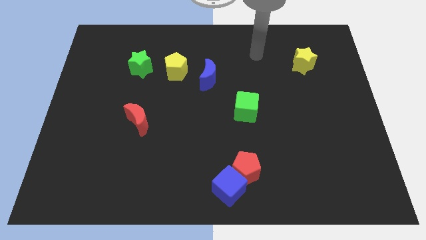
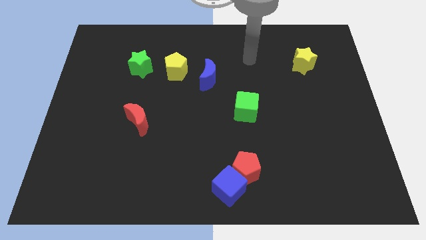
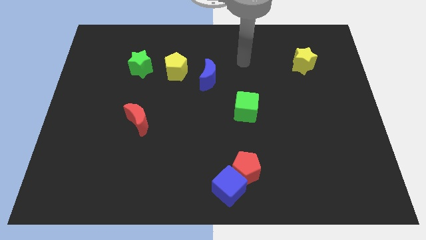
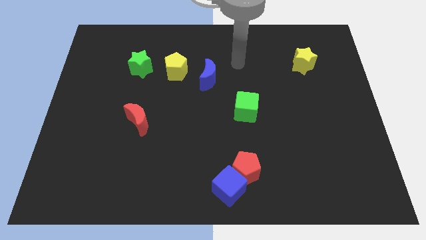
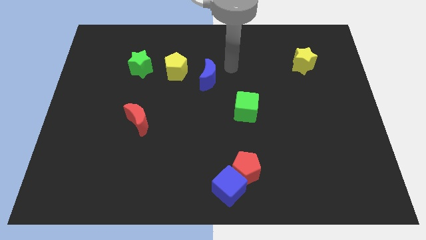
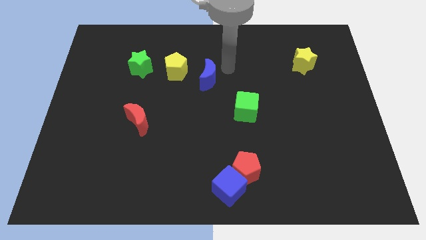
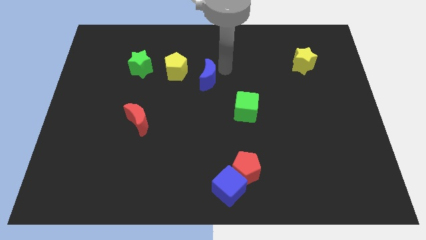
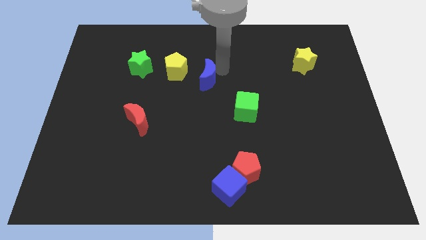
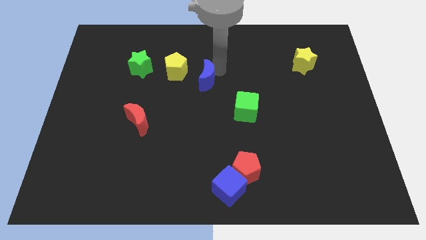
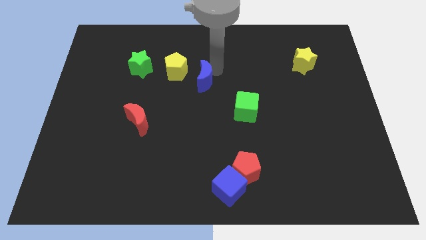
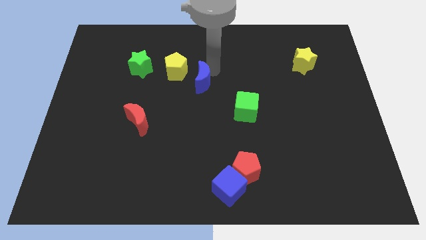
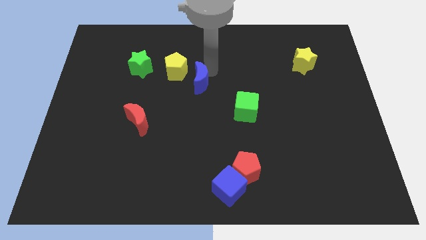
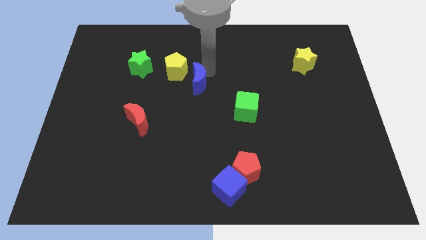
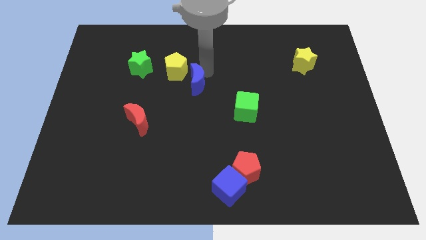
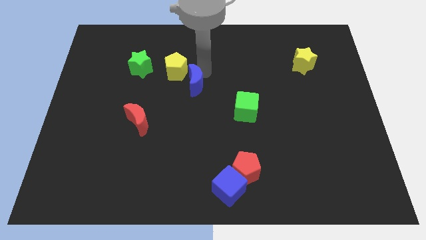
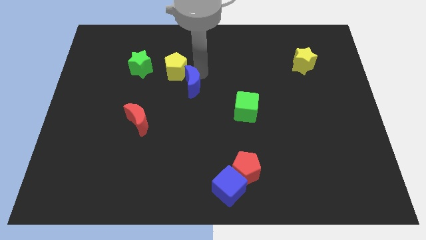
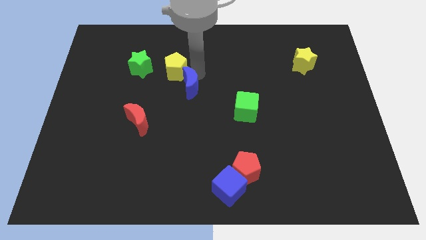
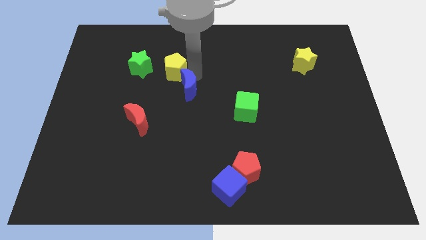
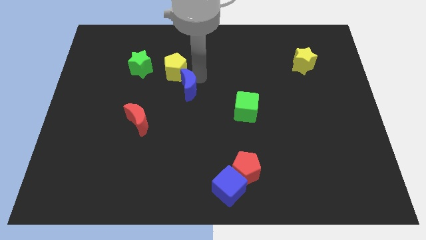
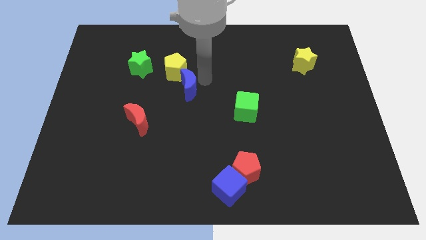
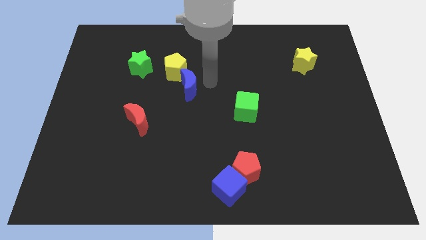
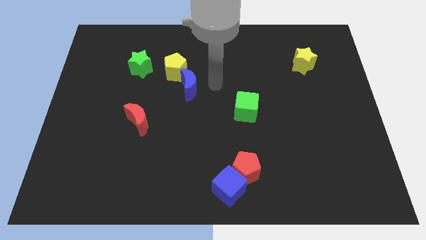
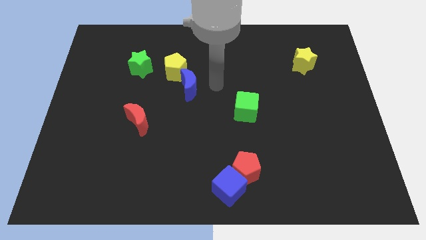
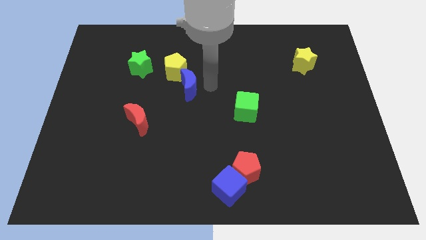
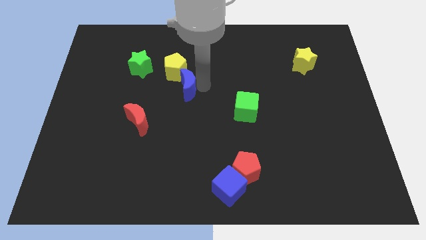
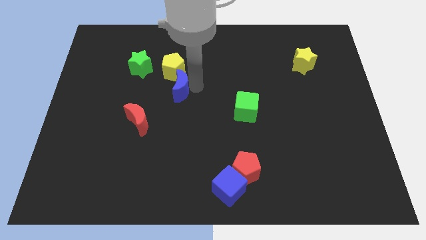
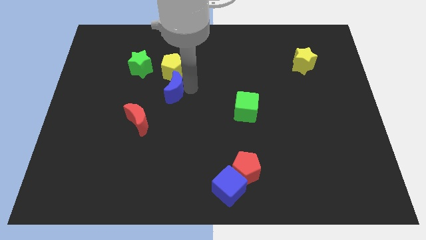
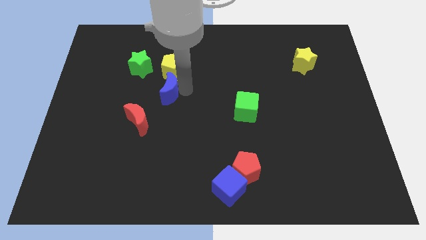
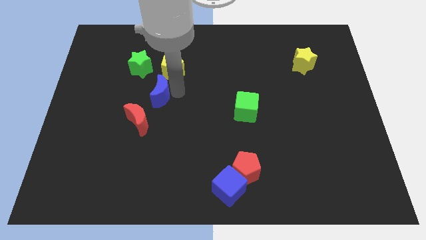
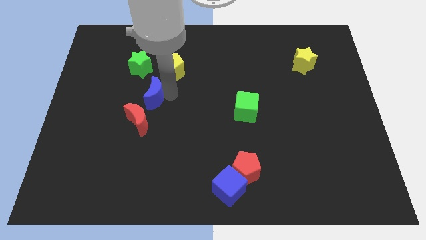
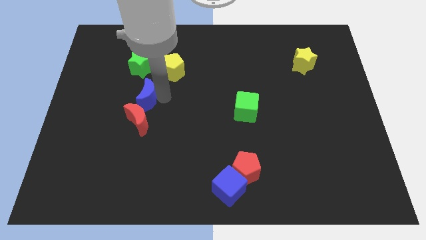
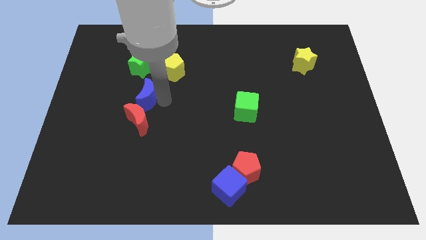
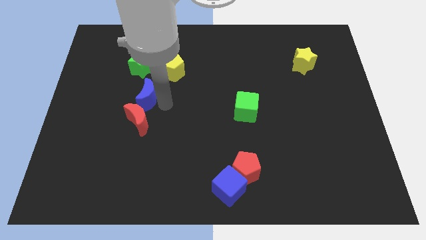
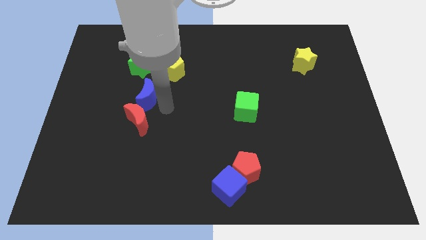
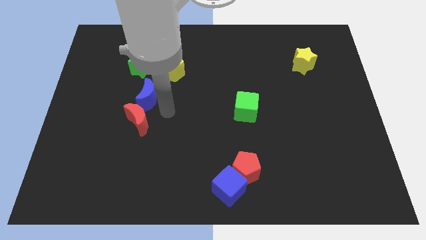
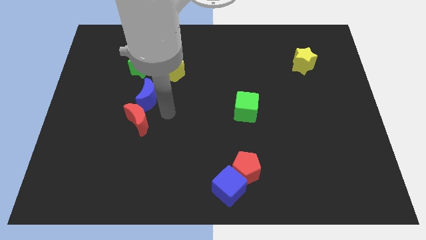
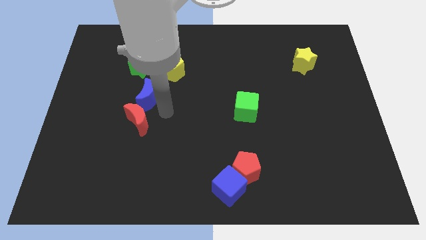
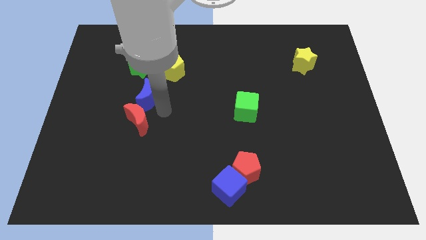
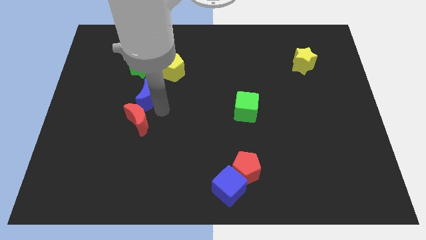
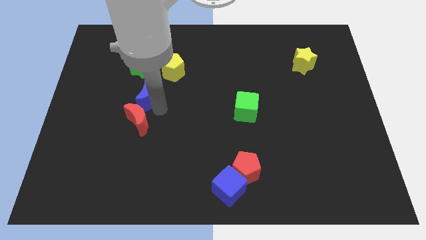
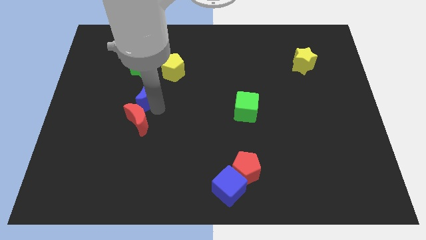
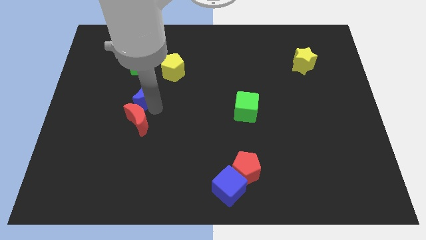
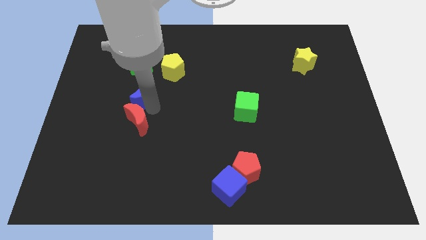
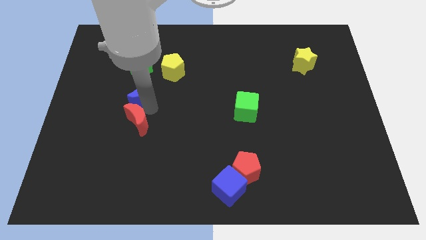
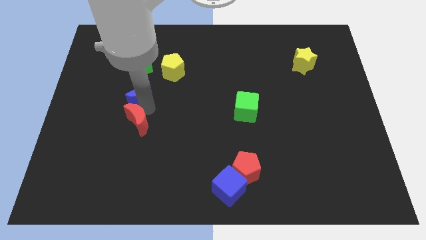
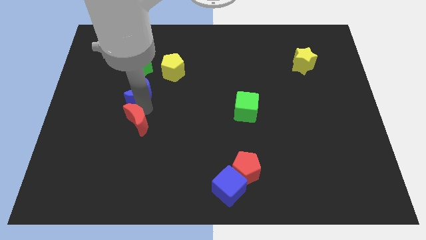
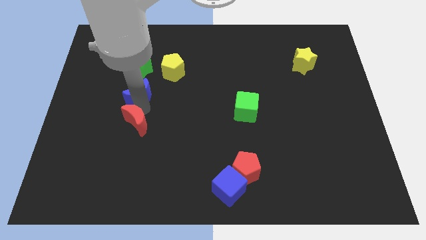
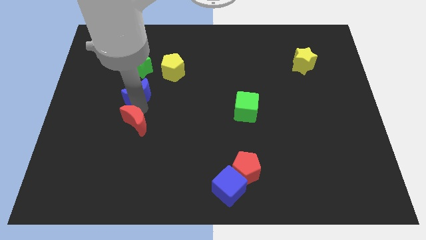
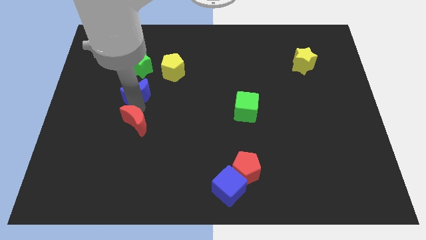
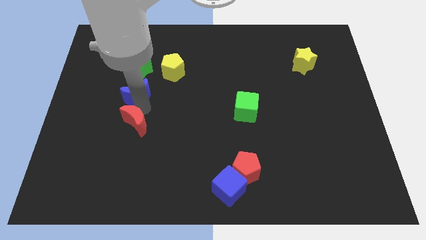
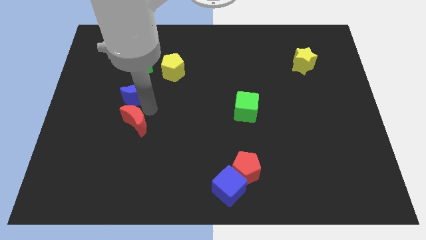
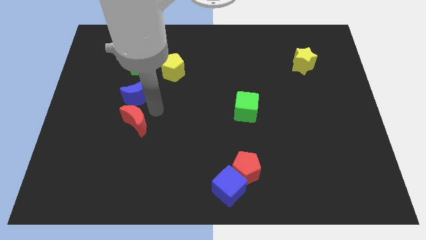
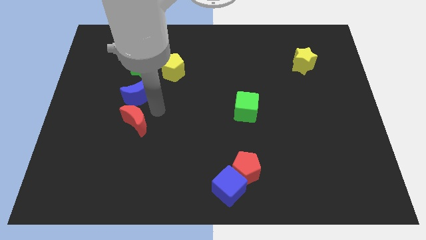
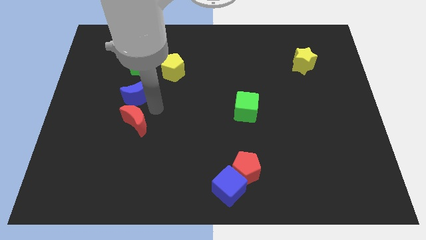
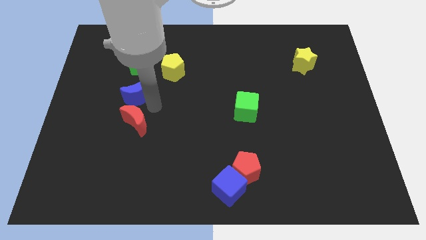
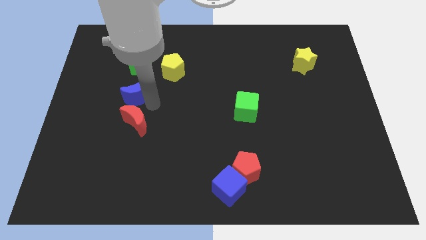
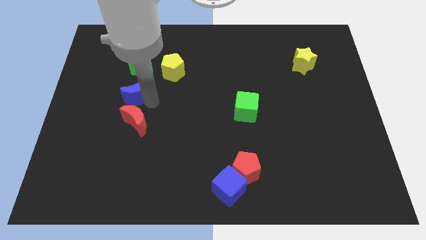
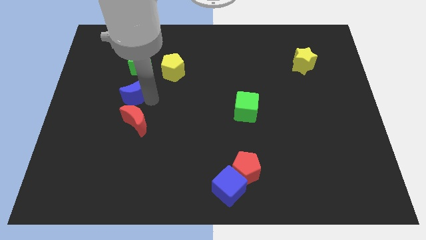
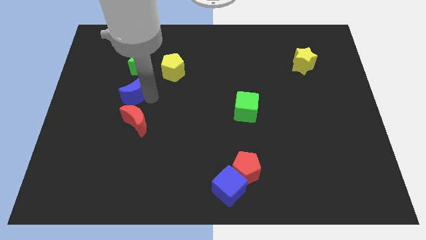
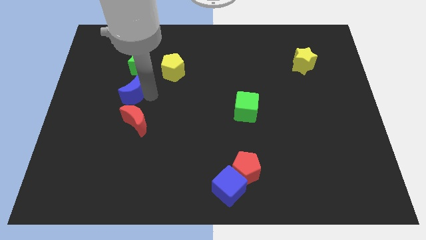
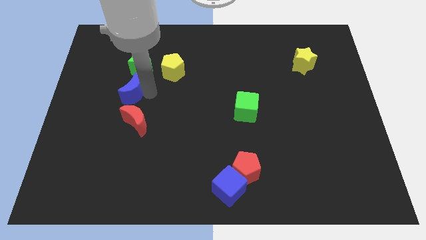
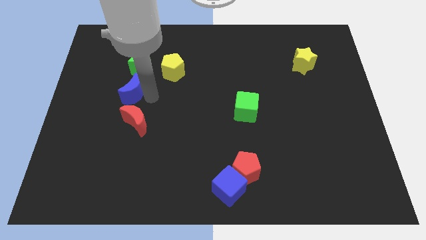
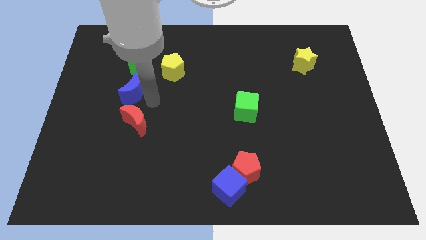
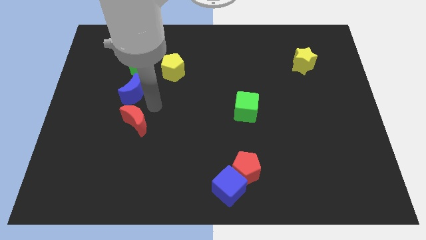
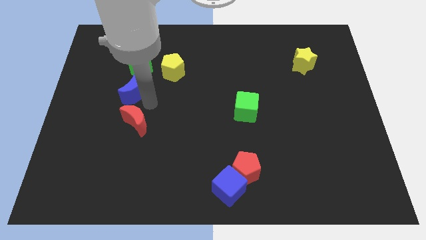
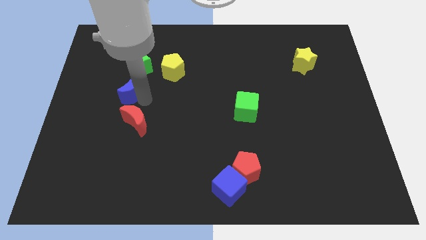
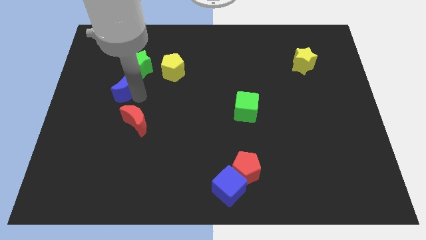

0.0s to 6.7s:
slide the blue moon to the bottom left of the green star
